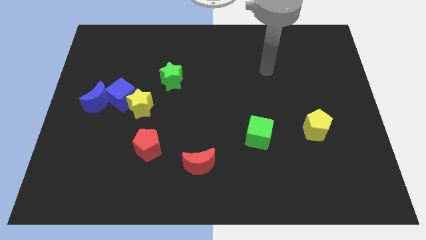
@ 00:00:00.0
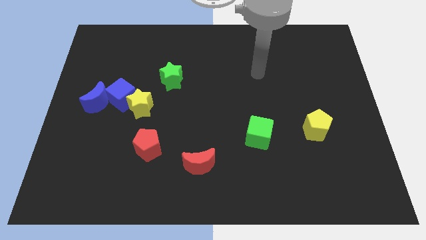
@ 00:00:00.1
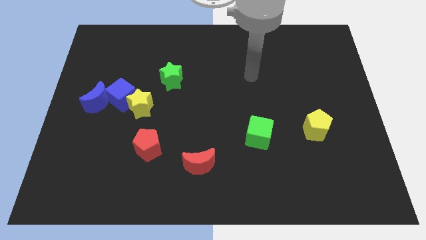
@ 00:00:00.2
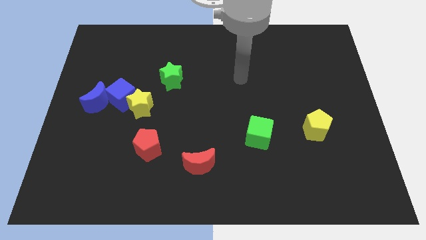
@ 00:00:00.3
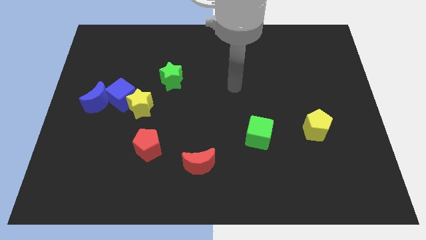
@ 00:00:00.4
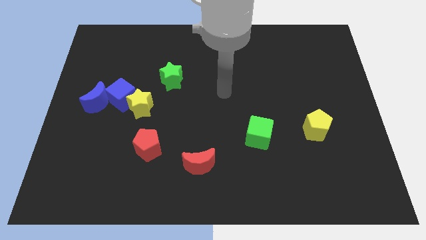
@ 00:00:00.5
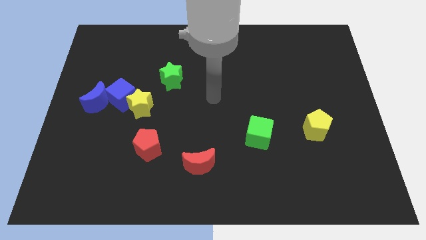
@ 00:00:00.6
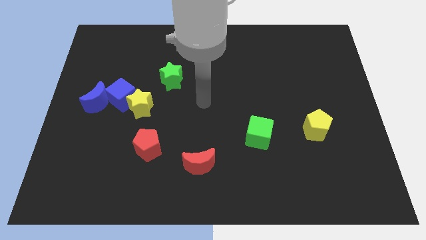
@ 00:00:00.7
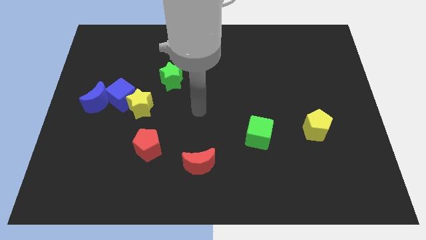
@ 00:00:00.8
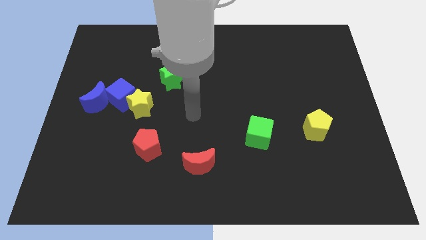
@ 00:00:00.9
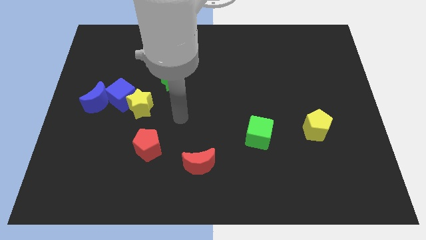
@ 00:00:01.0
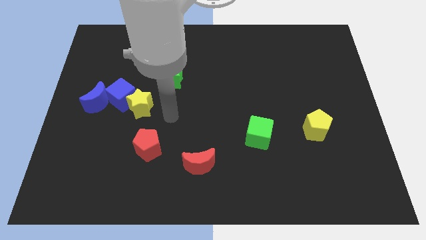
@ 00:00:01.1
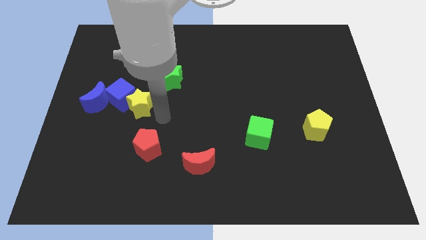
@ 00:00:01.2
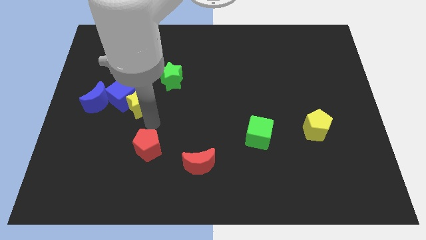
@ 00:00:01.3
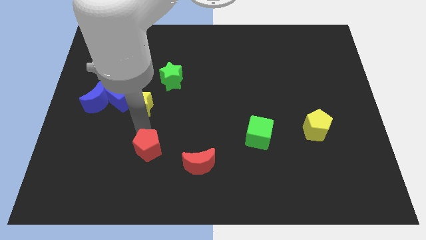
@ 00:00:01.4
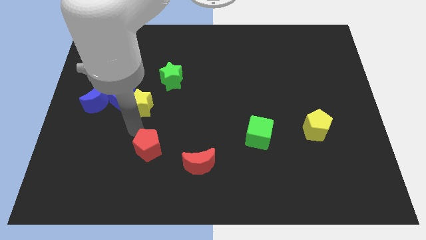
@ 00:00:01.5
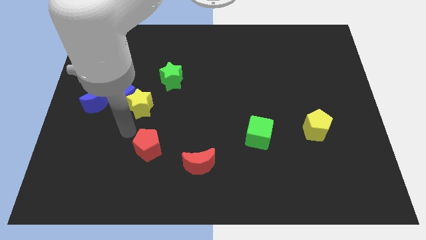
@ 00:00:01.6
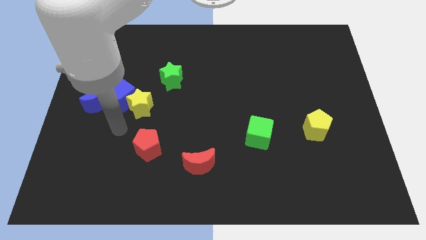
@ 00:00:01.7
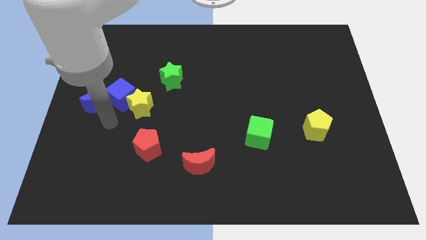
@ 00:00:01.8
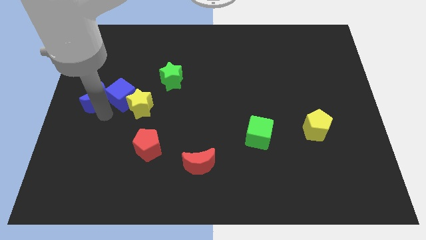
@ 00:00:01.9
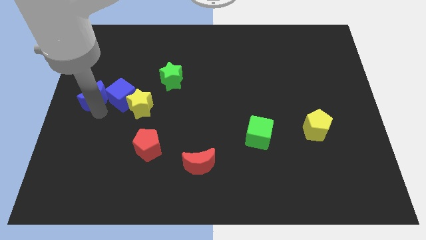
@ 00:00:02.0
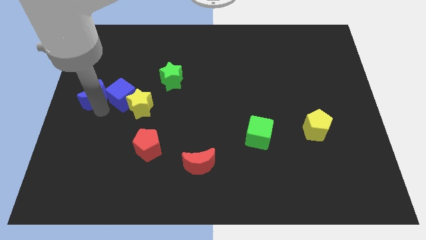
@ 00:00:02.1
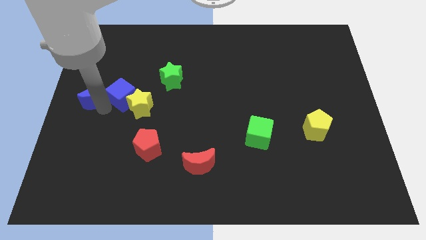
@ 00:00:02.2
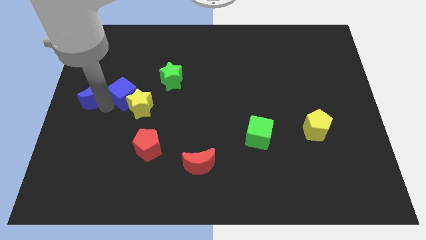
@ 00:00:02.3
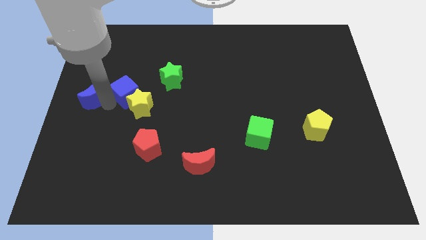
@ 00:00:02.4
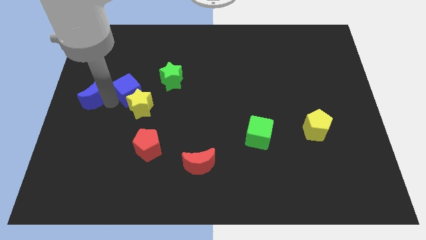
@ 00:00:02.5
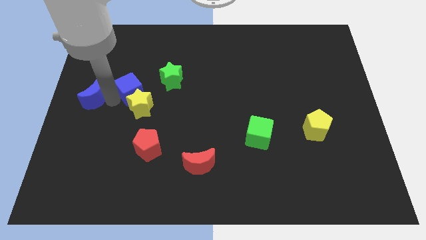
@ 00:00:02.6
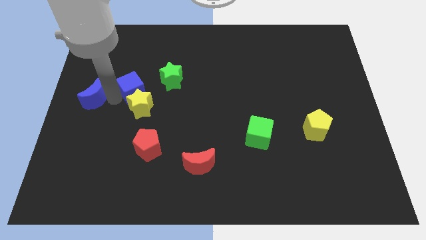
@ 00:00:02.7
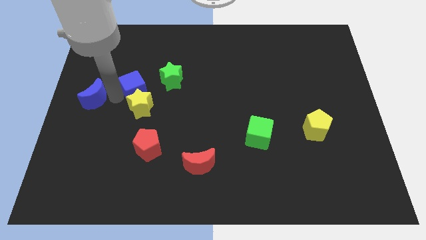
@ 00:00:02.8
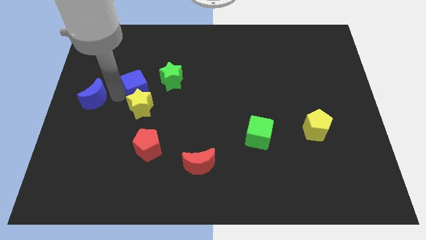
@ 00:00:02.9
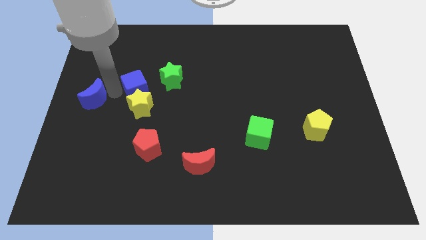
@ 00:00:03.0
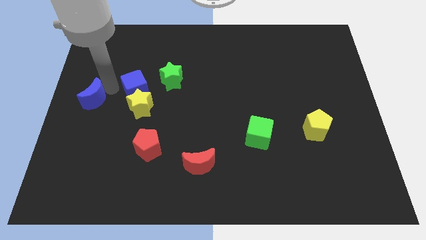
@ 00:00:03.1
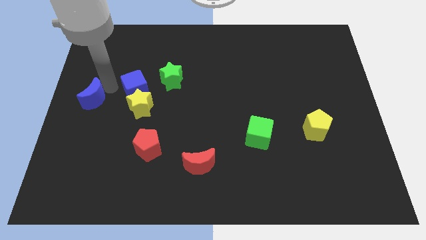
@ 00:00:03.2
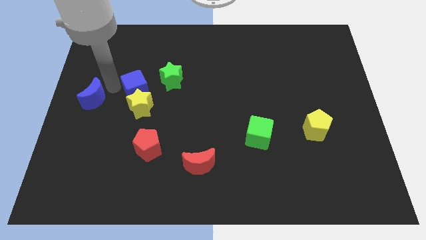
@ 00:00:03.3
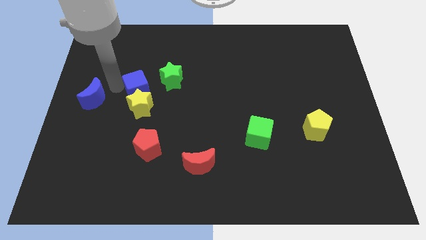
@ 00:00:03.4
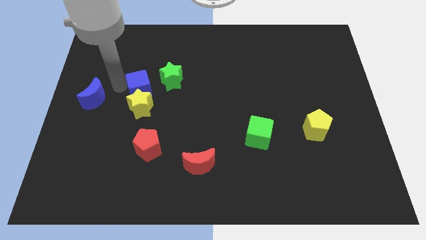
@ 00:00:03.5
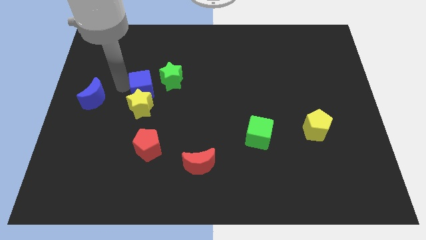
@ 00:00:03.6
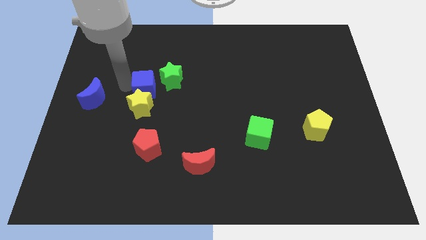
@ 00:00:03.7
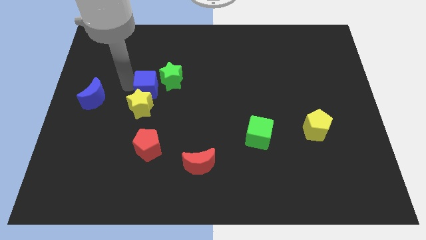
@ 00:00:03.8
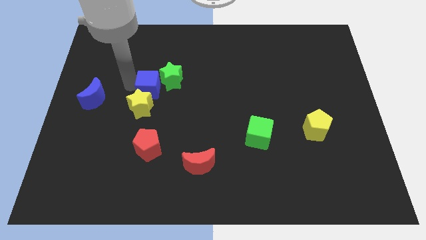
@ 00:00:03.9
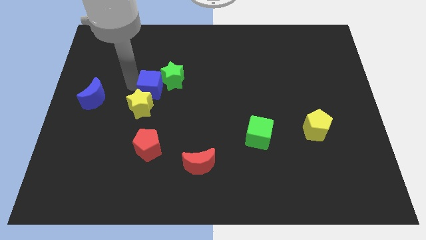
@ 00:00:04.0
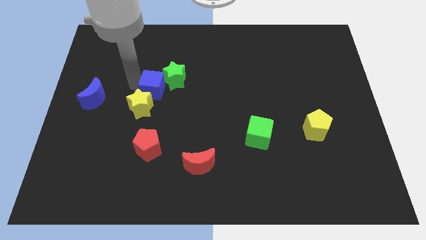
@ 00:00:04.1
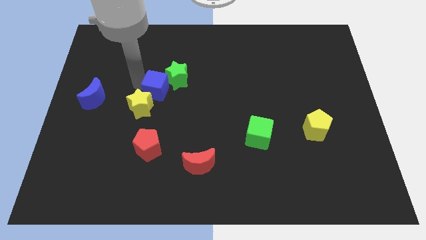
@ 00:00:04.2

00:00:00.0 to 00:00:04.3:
slightly move the blue cube right

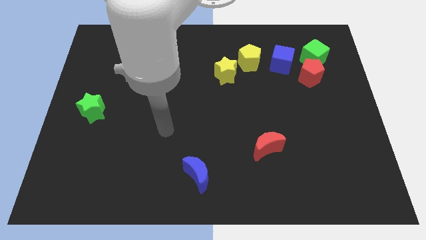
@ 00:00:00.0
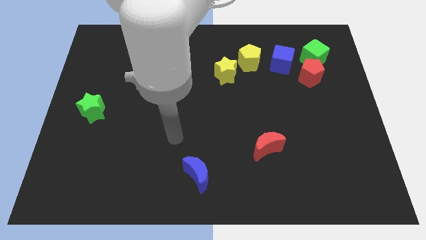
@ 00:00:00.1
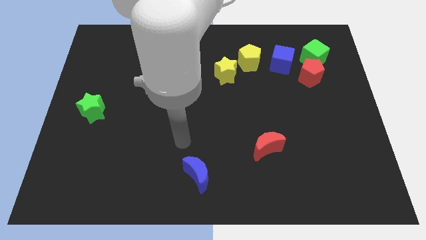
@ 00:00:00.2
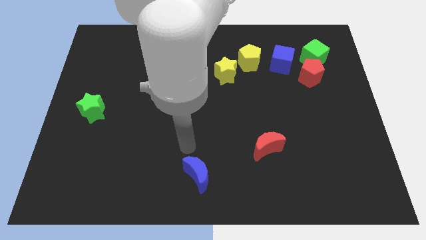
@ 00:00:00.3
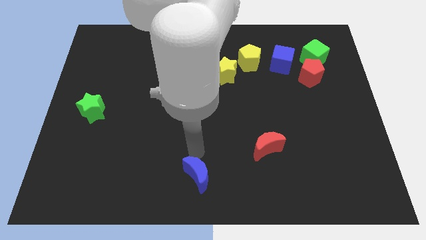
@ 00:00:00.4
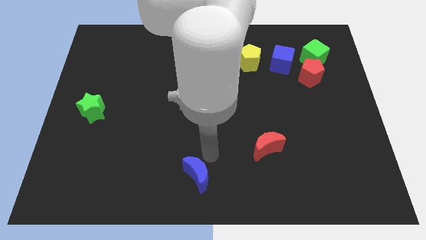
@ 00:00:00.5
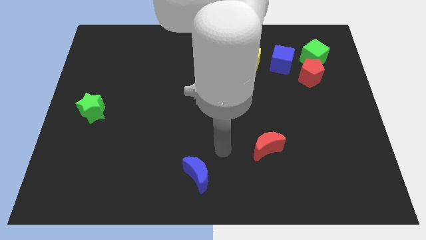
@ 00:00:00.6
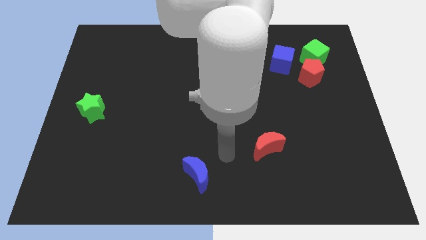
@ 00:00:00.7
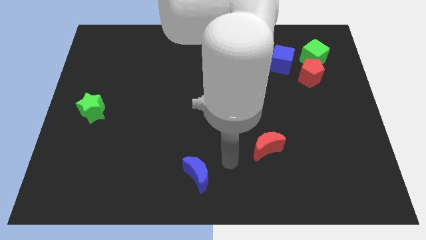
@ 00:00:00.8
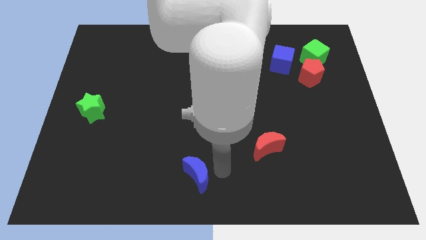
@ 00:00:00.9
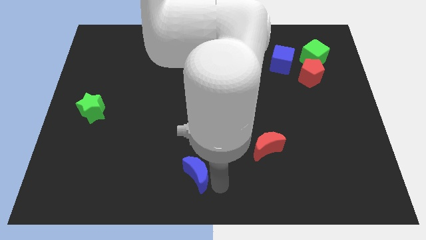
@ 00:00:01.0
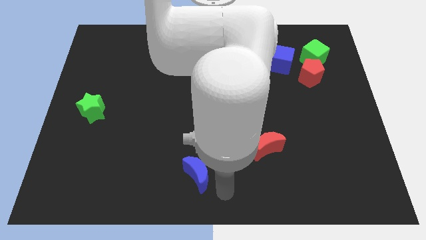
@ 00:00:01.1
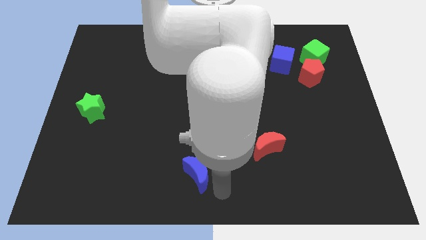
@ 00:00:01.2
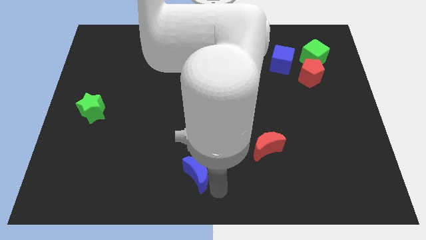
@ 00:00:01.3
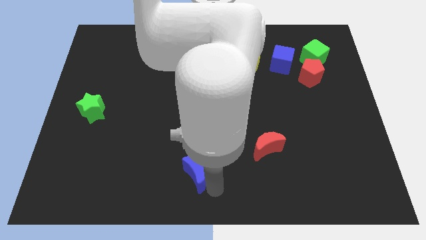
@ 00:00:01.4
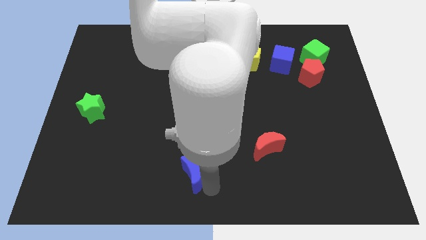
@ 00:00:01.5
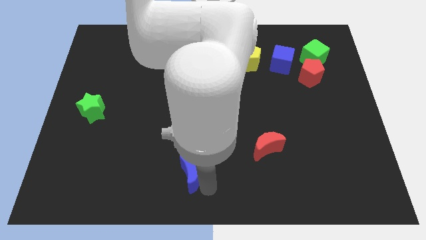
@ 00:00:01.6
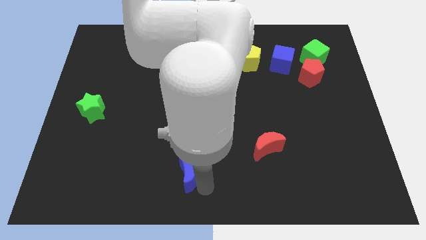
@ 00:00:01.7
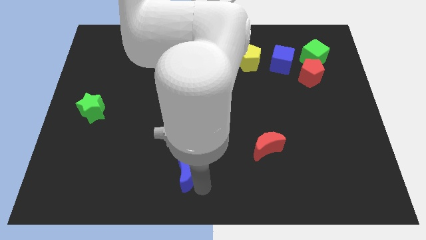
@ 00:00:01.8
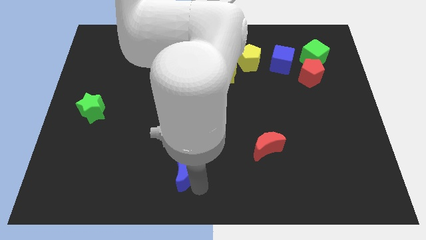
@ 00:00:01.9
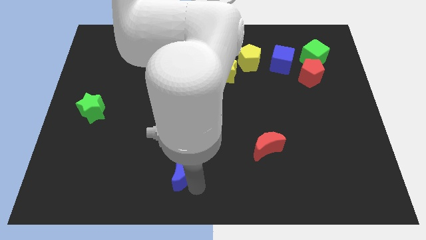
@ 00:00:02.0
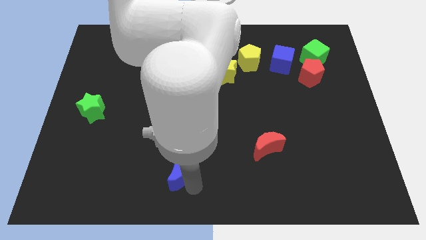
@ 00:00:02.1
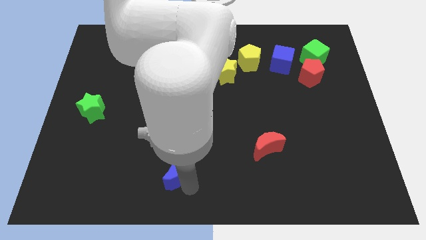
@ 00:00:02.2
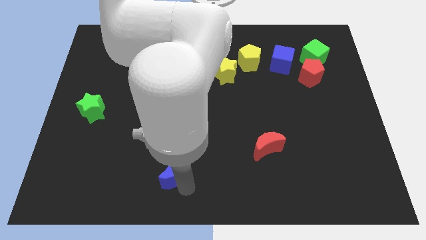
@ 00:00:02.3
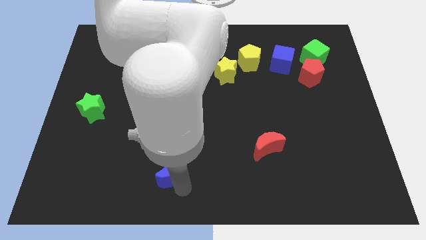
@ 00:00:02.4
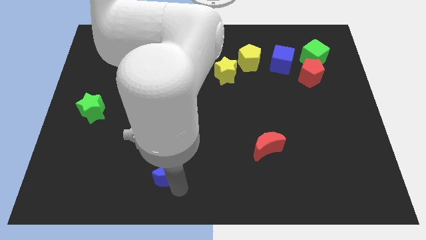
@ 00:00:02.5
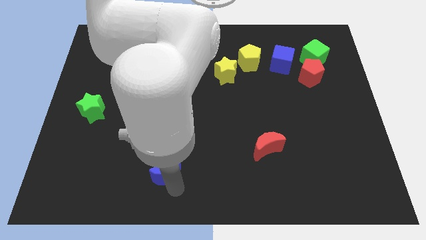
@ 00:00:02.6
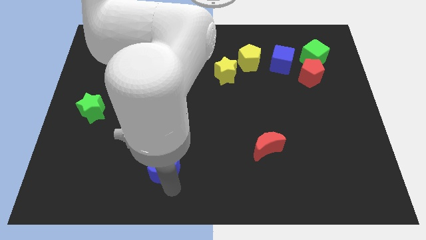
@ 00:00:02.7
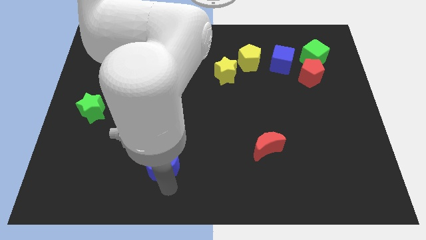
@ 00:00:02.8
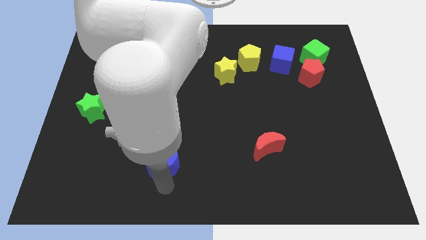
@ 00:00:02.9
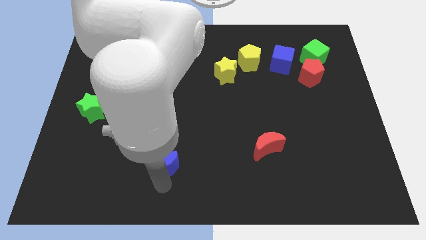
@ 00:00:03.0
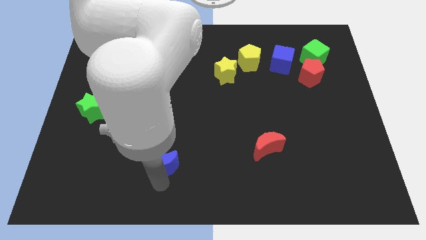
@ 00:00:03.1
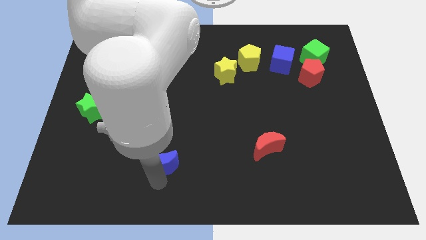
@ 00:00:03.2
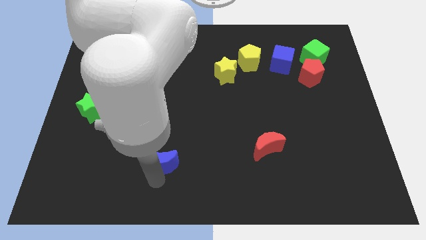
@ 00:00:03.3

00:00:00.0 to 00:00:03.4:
push the blue moon slightly up and left

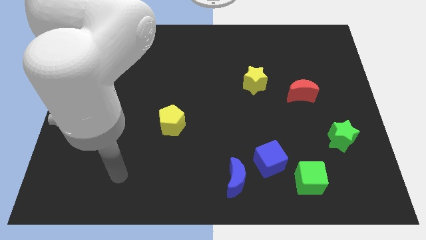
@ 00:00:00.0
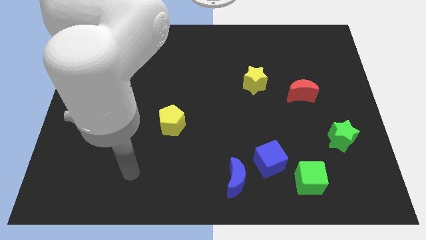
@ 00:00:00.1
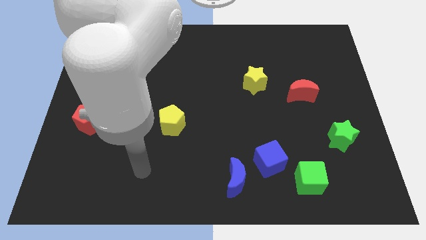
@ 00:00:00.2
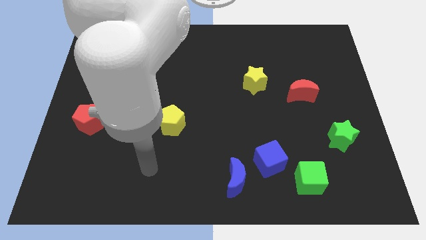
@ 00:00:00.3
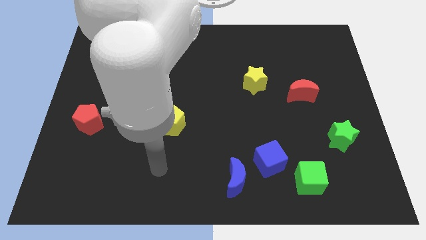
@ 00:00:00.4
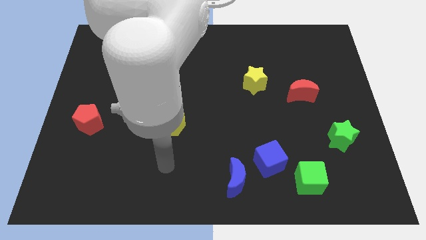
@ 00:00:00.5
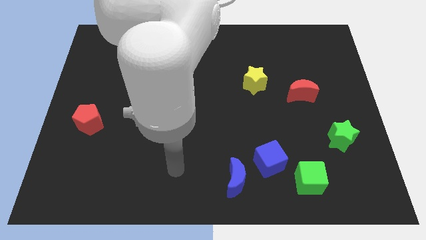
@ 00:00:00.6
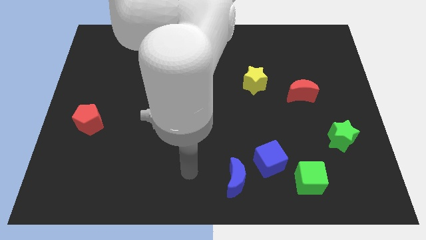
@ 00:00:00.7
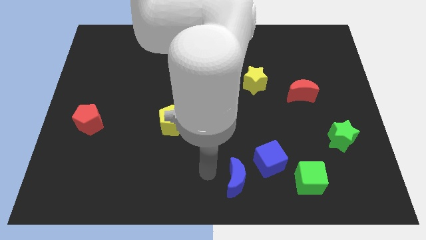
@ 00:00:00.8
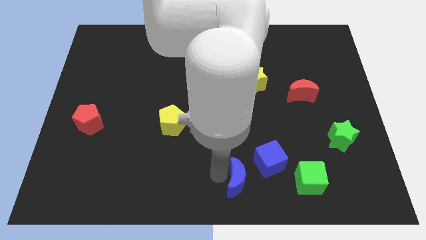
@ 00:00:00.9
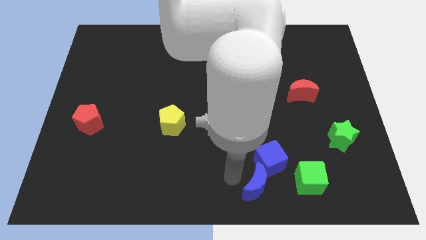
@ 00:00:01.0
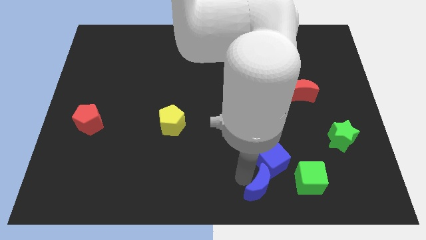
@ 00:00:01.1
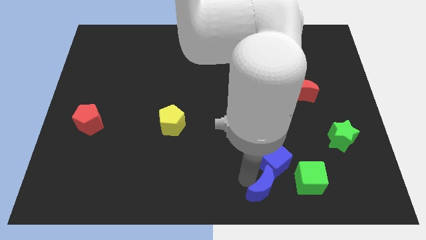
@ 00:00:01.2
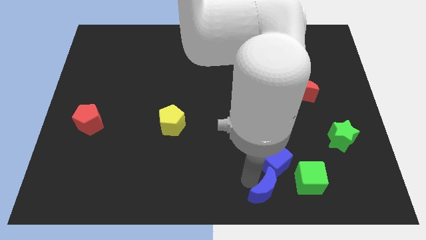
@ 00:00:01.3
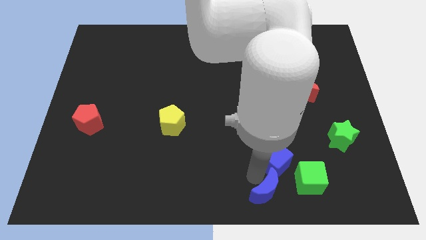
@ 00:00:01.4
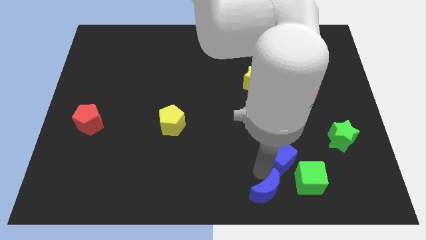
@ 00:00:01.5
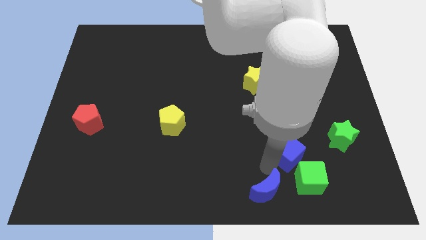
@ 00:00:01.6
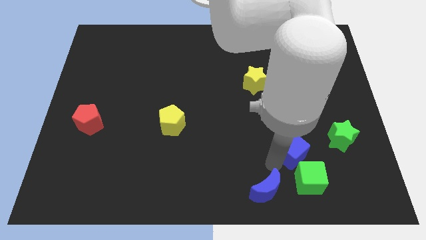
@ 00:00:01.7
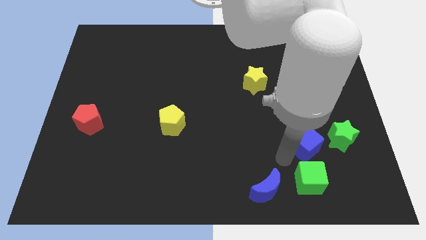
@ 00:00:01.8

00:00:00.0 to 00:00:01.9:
slide the blue cube slightly diagonally up and to the right
